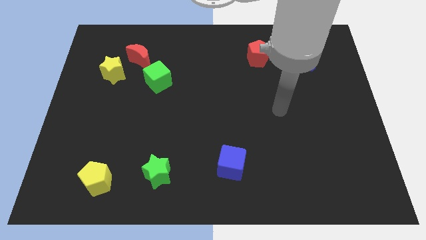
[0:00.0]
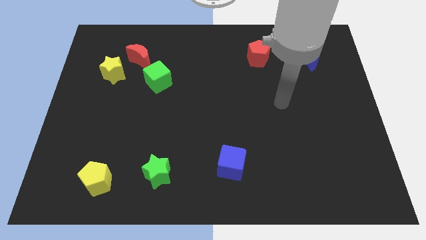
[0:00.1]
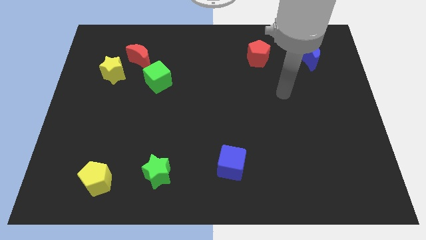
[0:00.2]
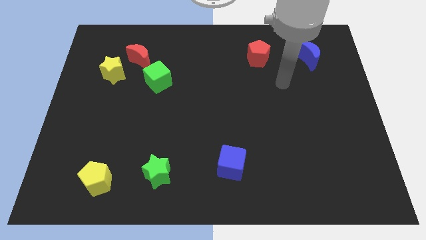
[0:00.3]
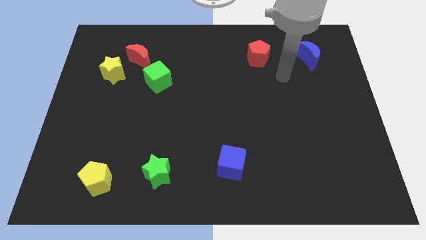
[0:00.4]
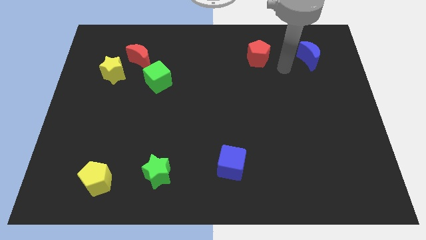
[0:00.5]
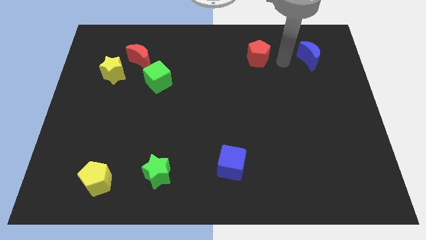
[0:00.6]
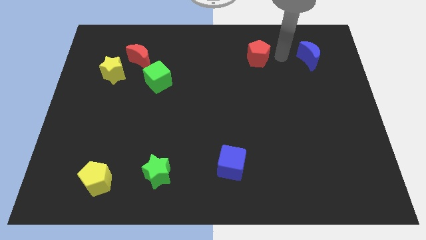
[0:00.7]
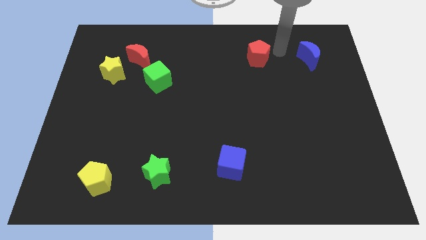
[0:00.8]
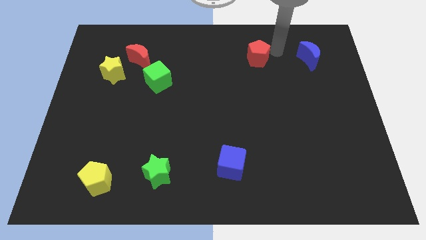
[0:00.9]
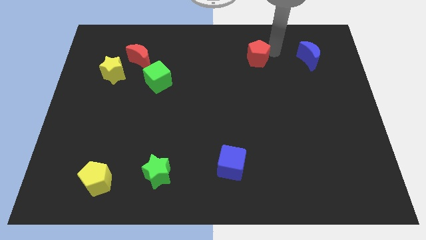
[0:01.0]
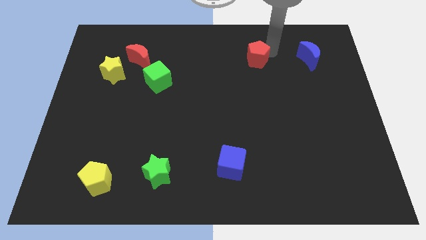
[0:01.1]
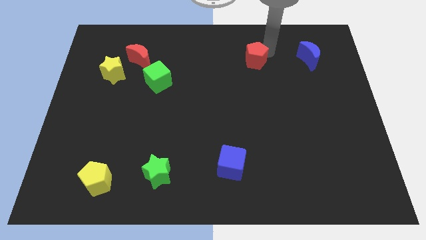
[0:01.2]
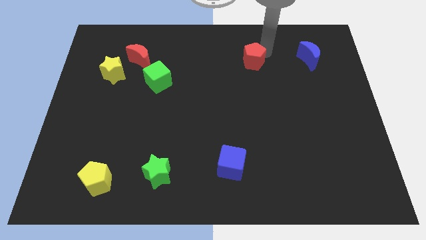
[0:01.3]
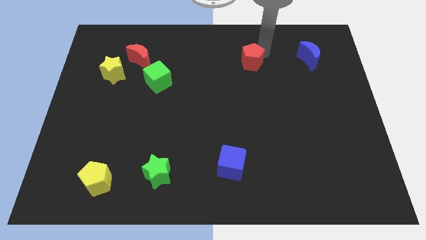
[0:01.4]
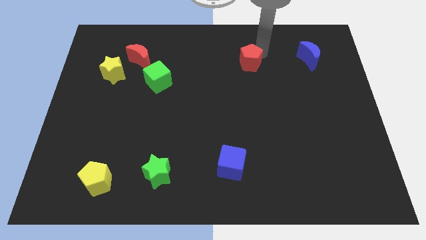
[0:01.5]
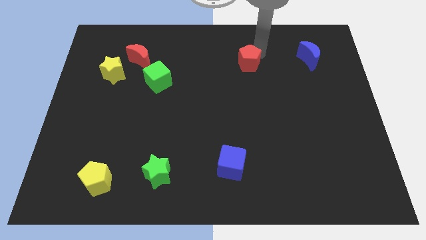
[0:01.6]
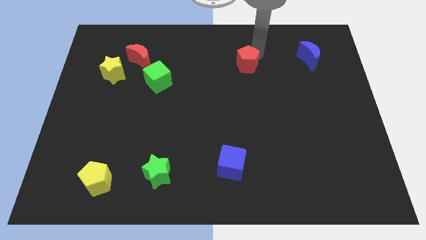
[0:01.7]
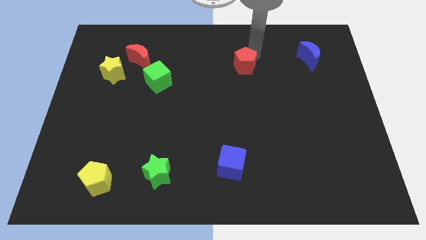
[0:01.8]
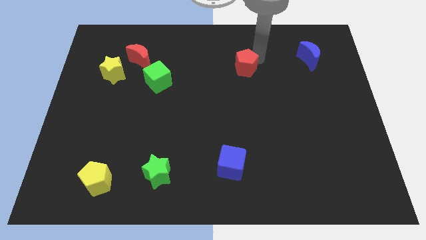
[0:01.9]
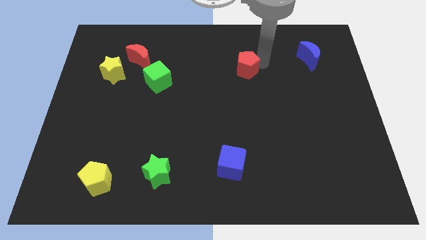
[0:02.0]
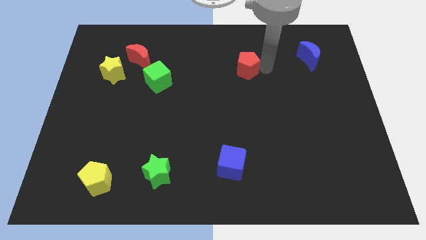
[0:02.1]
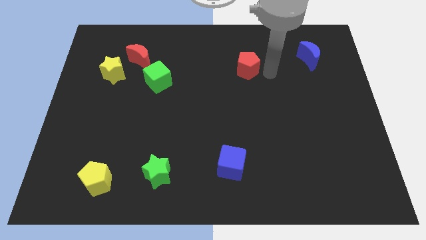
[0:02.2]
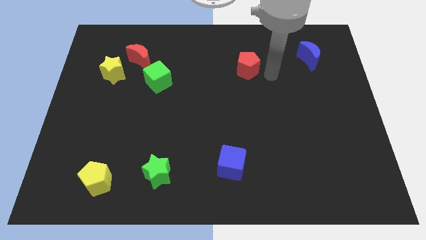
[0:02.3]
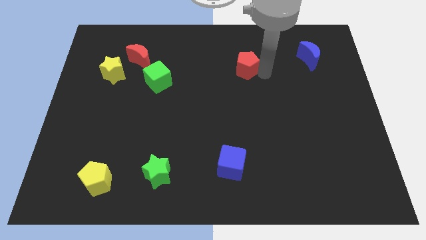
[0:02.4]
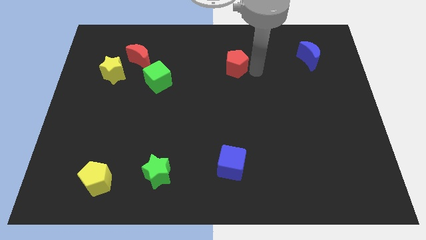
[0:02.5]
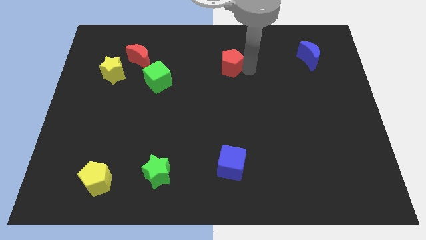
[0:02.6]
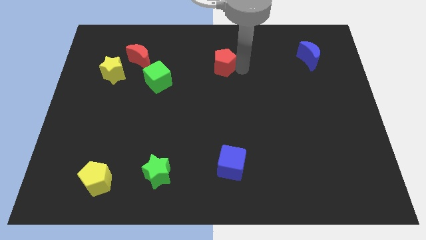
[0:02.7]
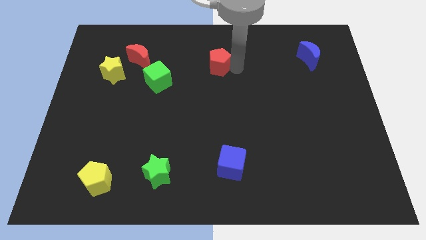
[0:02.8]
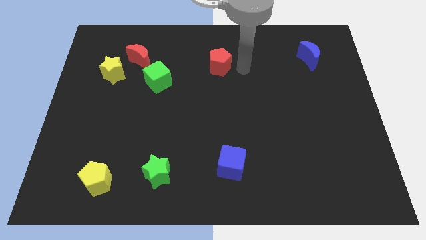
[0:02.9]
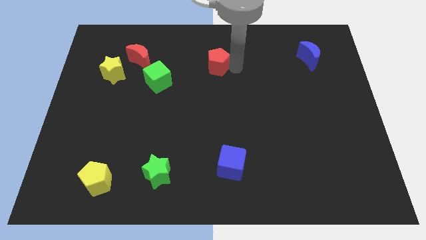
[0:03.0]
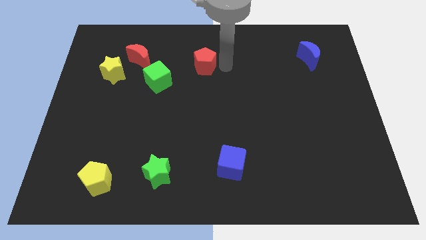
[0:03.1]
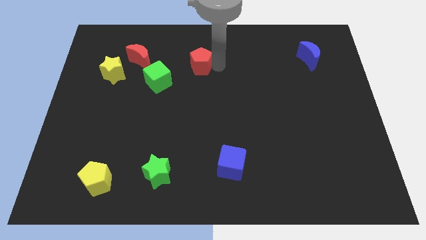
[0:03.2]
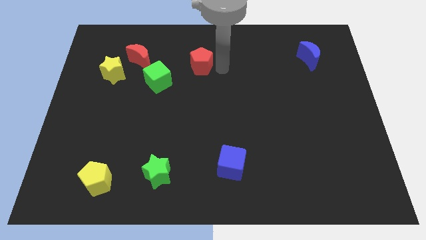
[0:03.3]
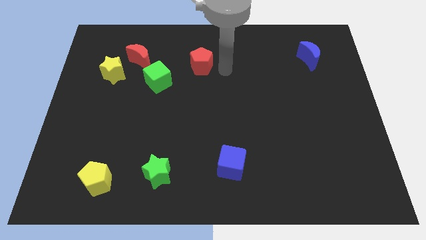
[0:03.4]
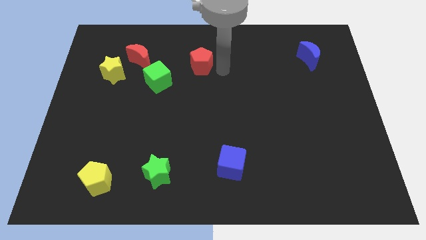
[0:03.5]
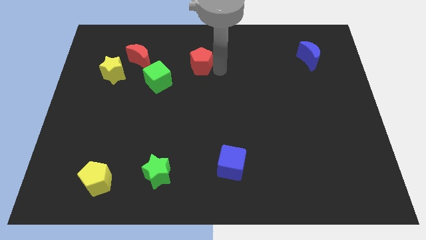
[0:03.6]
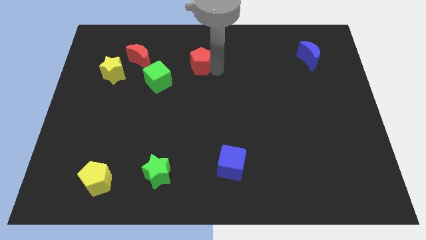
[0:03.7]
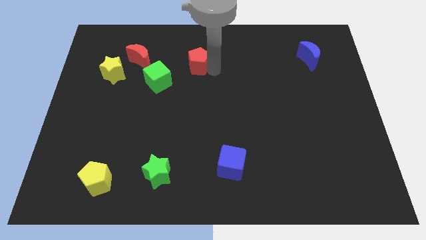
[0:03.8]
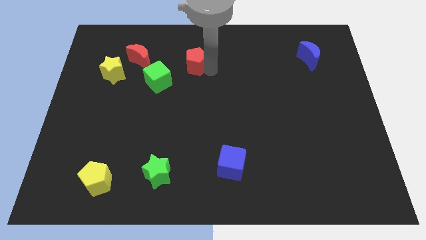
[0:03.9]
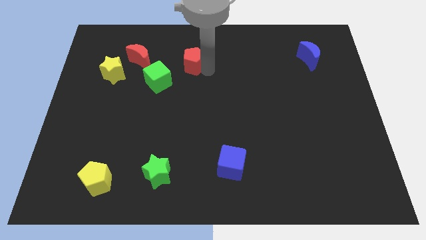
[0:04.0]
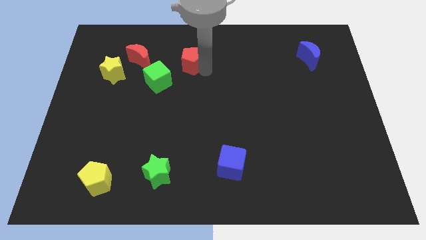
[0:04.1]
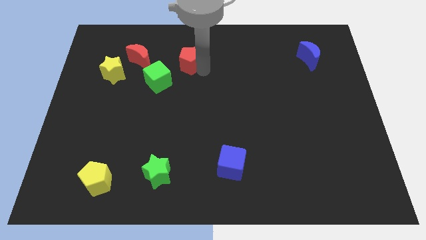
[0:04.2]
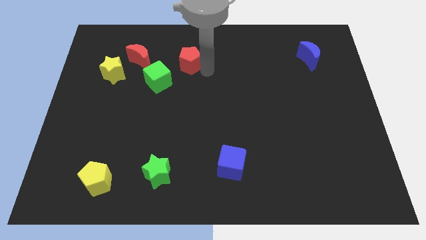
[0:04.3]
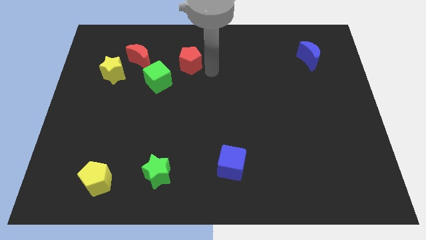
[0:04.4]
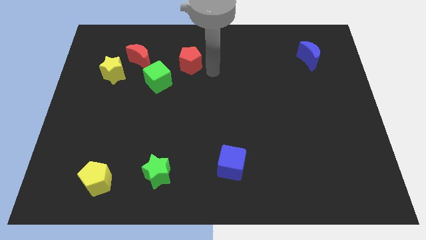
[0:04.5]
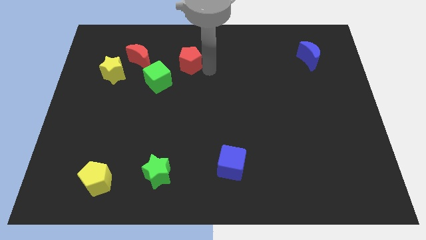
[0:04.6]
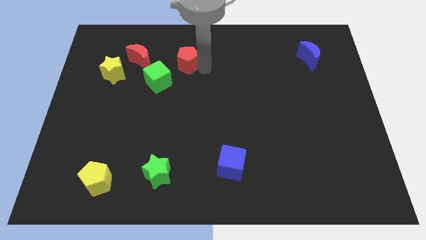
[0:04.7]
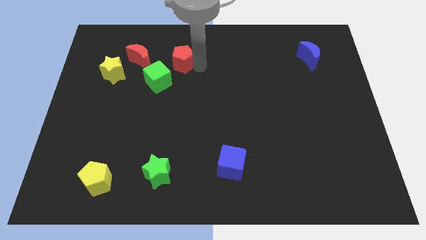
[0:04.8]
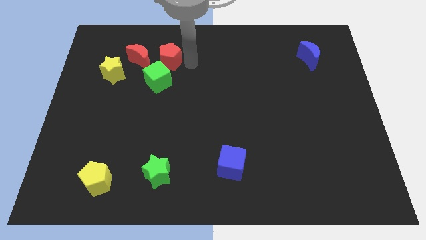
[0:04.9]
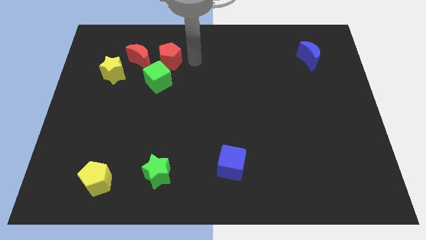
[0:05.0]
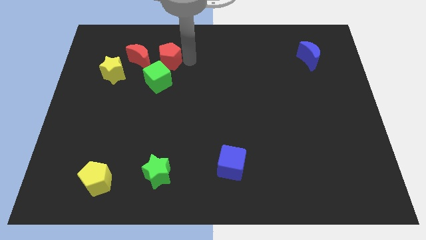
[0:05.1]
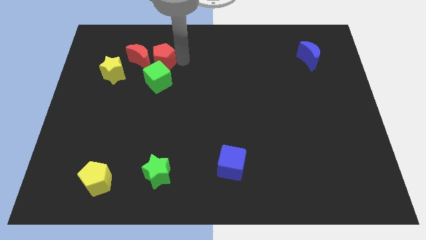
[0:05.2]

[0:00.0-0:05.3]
move the red pentagon close to the red moon

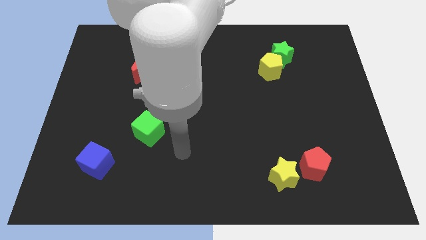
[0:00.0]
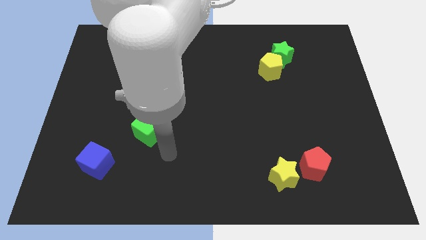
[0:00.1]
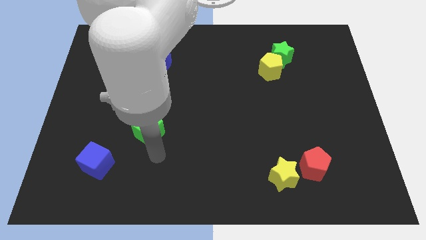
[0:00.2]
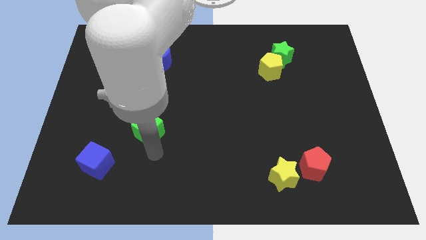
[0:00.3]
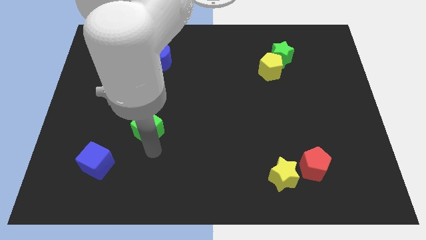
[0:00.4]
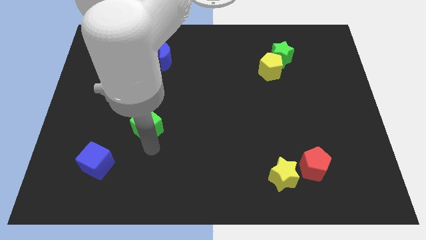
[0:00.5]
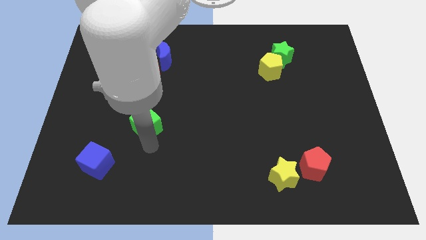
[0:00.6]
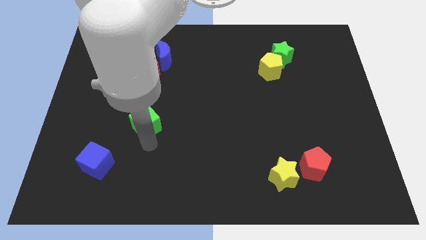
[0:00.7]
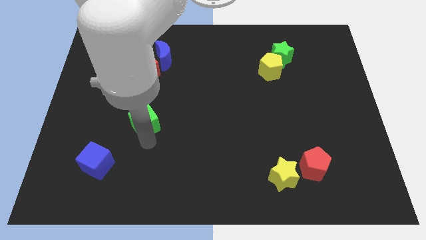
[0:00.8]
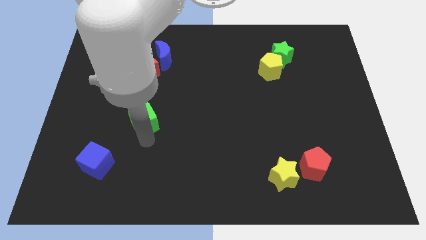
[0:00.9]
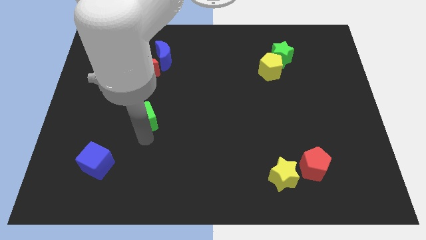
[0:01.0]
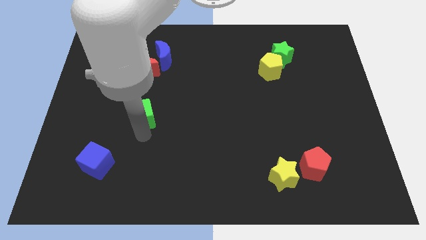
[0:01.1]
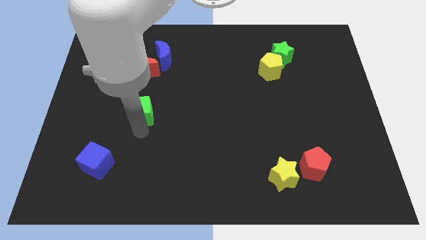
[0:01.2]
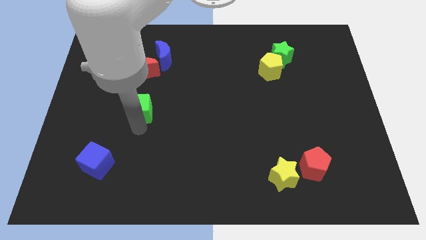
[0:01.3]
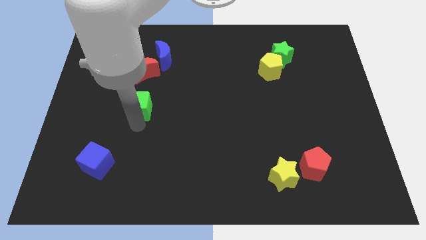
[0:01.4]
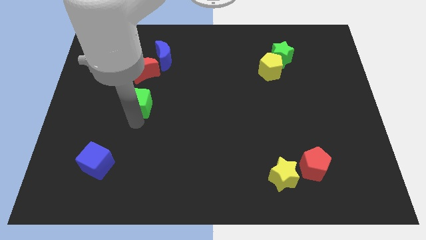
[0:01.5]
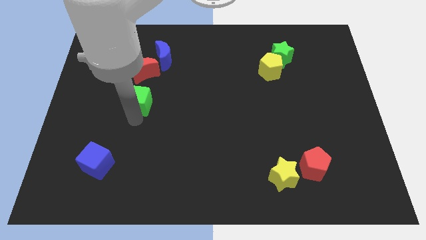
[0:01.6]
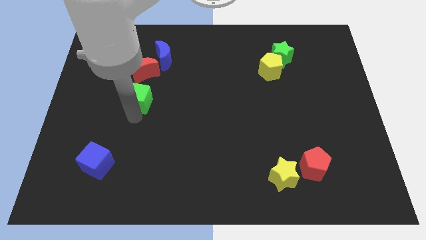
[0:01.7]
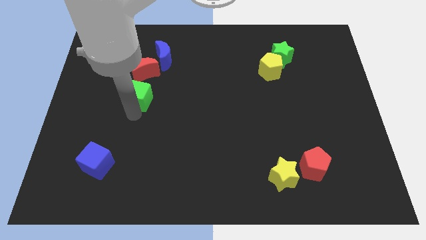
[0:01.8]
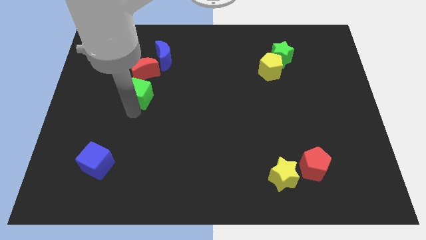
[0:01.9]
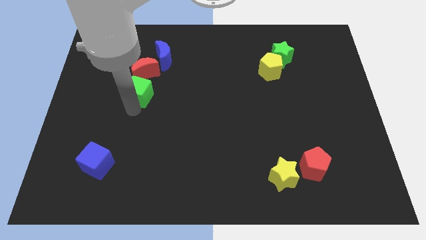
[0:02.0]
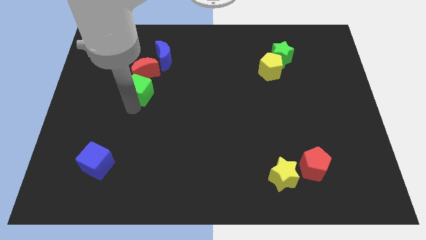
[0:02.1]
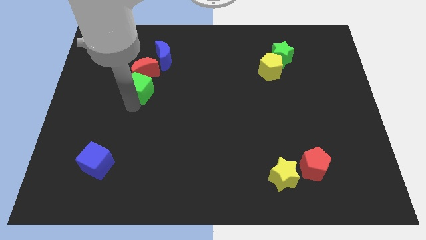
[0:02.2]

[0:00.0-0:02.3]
slide the green cube to the red moon
